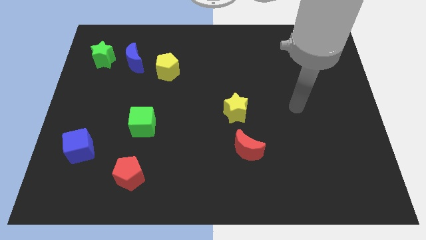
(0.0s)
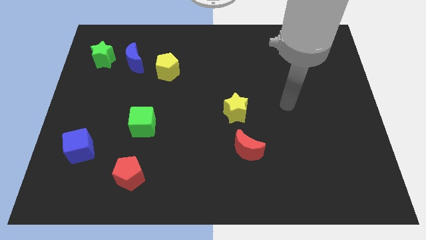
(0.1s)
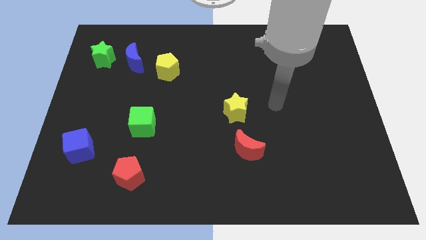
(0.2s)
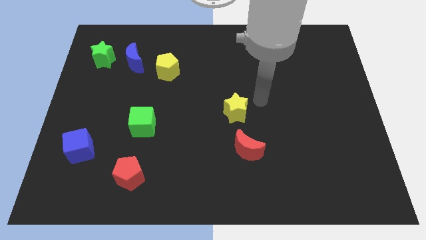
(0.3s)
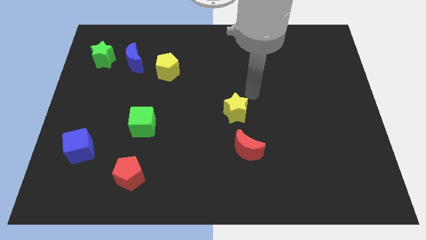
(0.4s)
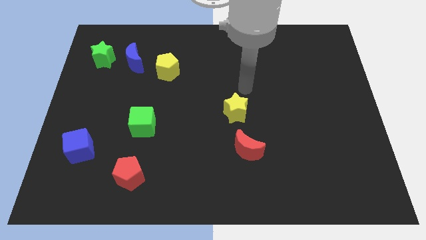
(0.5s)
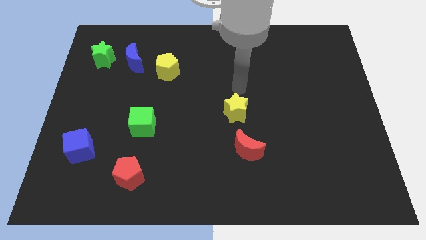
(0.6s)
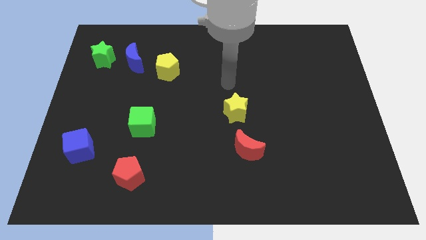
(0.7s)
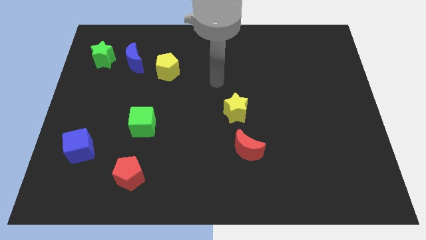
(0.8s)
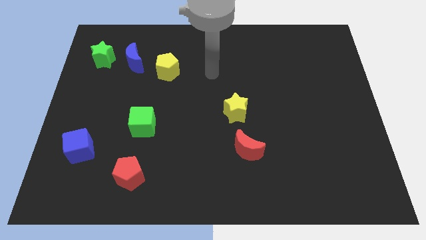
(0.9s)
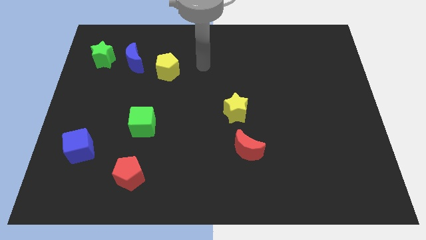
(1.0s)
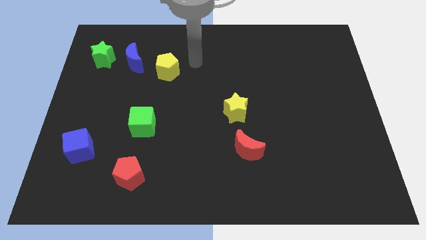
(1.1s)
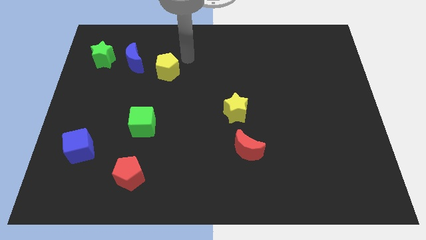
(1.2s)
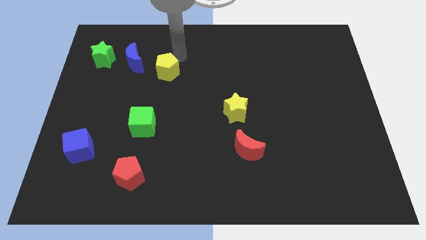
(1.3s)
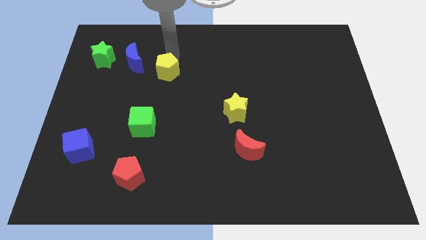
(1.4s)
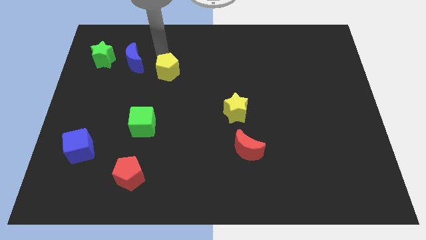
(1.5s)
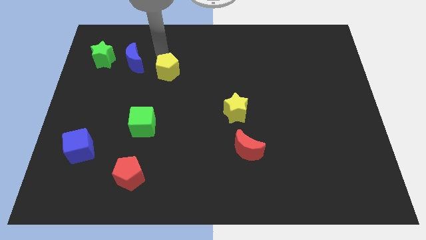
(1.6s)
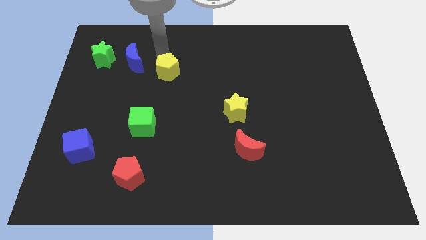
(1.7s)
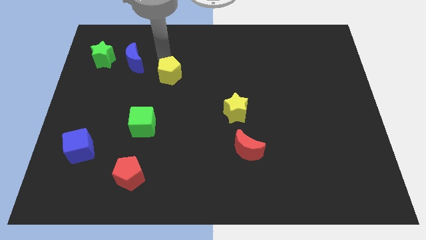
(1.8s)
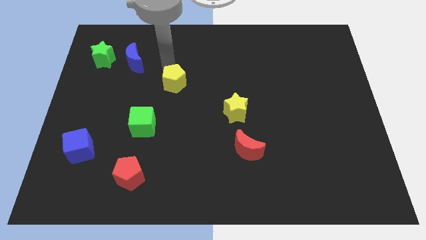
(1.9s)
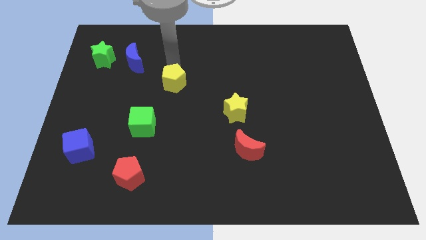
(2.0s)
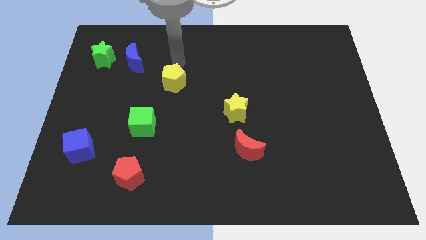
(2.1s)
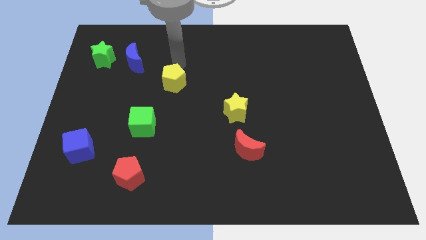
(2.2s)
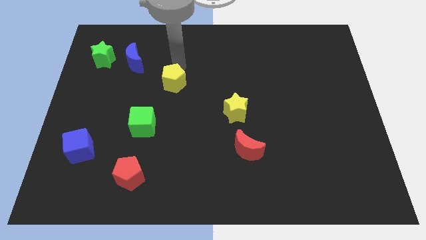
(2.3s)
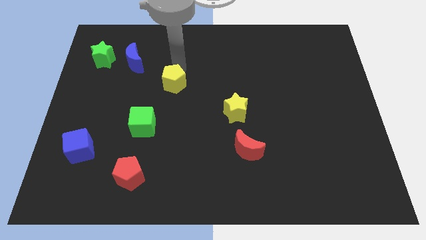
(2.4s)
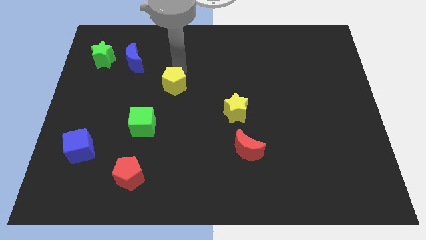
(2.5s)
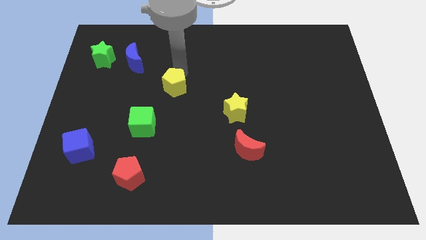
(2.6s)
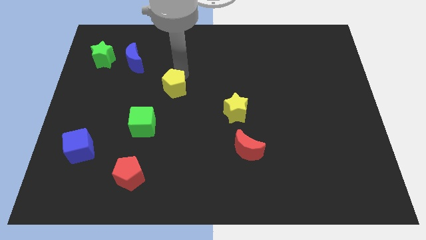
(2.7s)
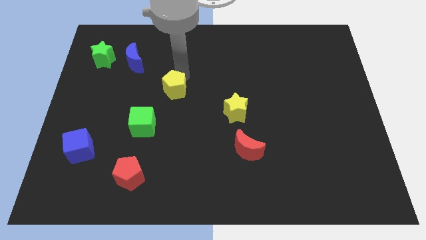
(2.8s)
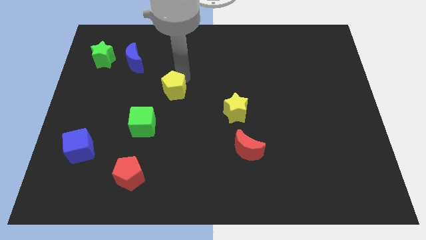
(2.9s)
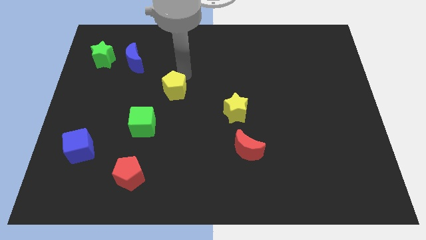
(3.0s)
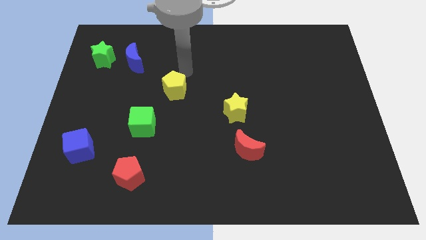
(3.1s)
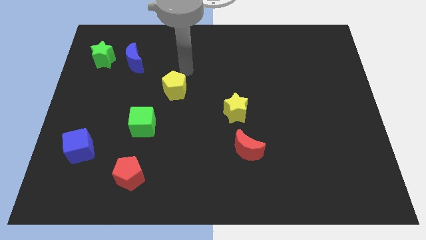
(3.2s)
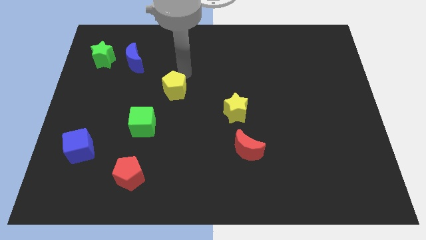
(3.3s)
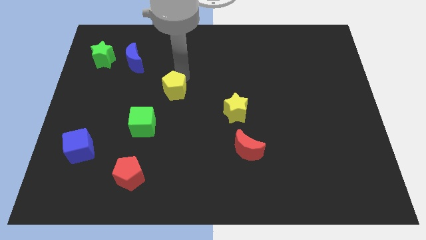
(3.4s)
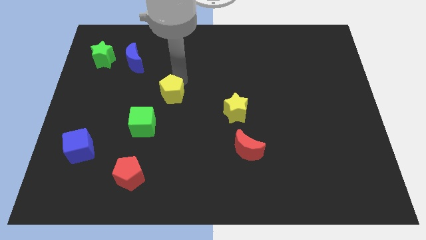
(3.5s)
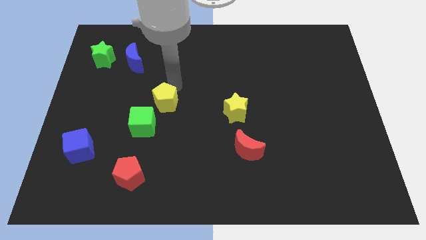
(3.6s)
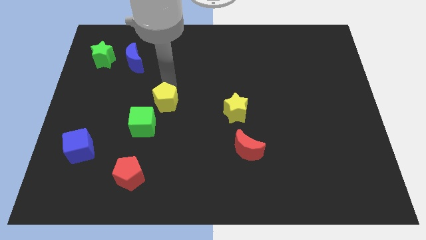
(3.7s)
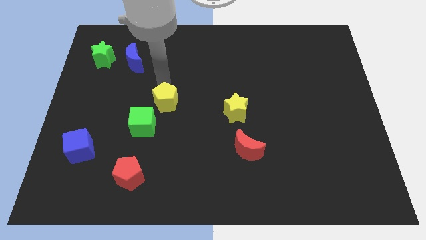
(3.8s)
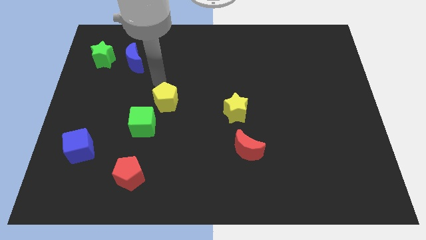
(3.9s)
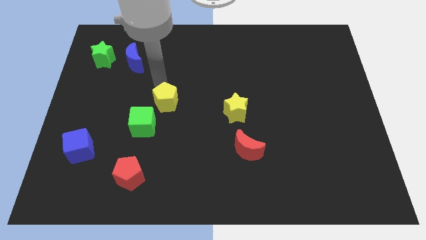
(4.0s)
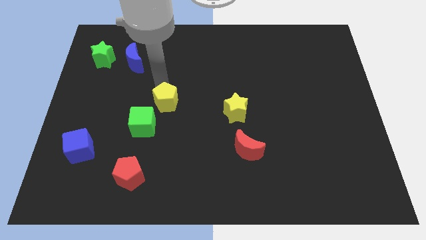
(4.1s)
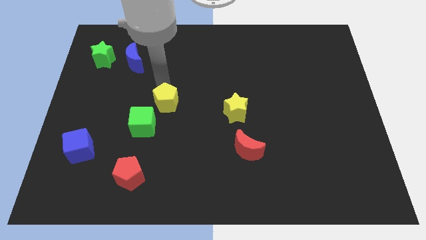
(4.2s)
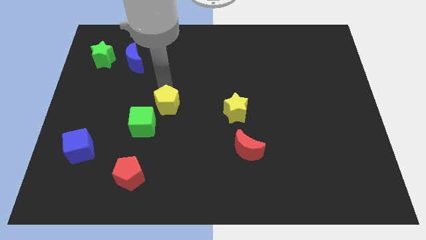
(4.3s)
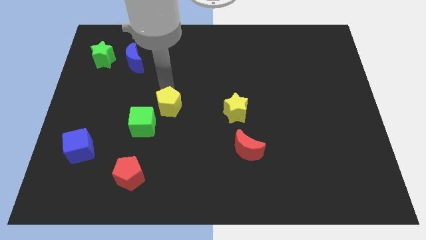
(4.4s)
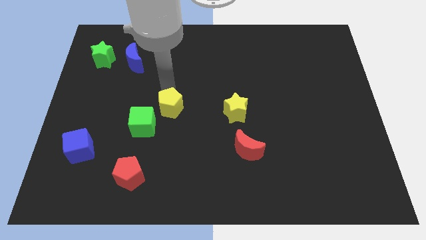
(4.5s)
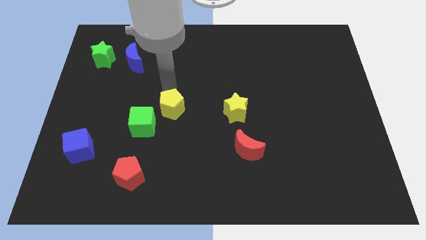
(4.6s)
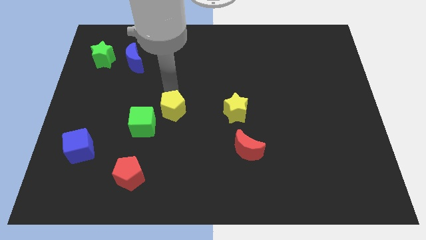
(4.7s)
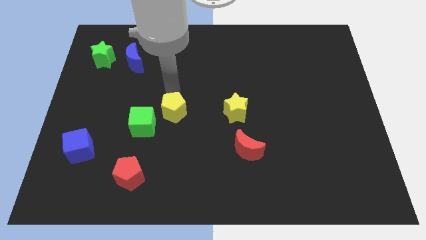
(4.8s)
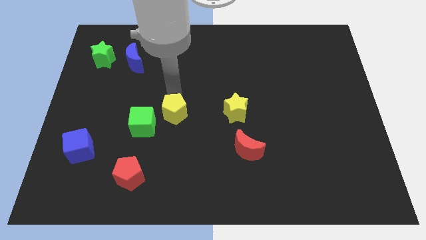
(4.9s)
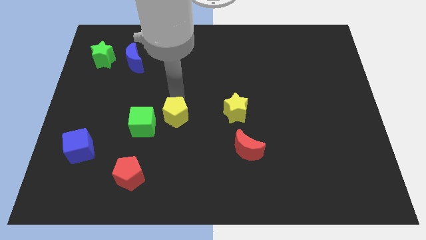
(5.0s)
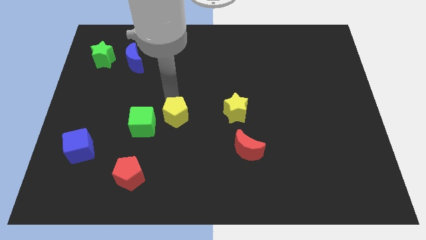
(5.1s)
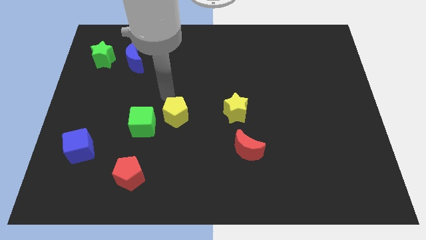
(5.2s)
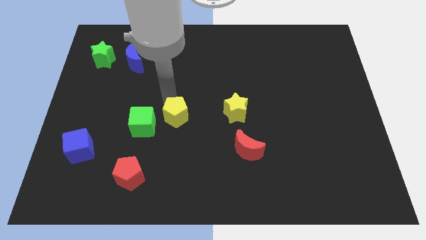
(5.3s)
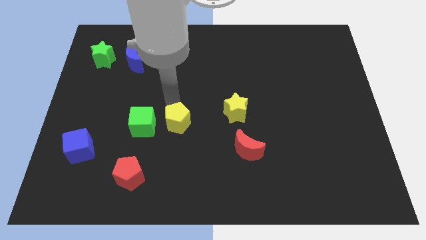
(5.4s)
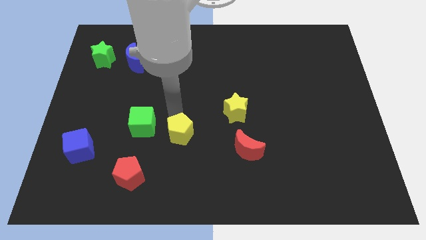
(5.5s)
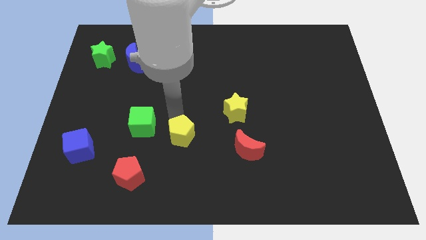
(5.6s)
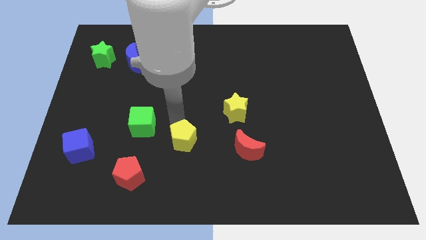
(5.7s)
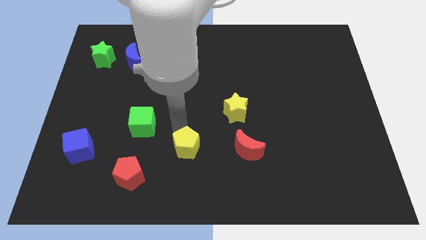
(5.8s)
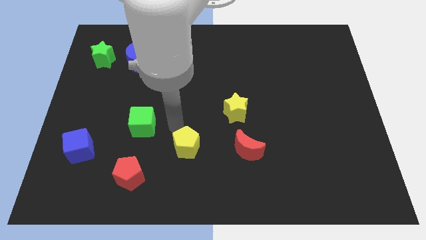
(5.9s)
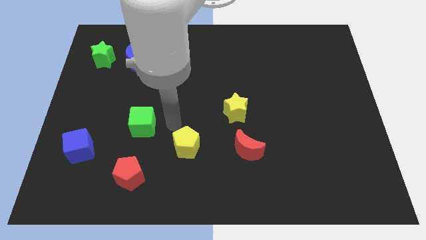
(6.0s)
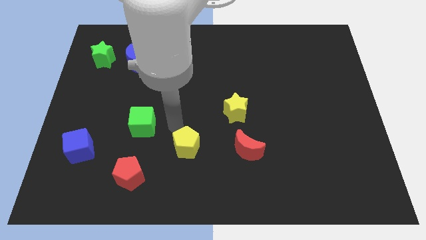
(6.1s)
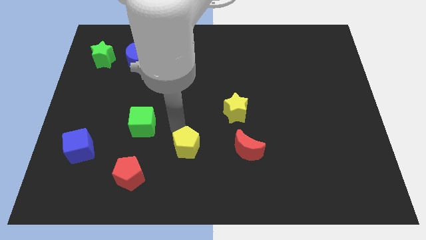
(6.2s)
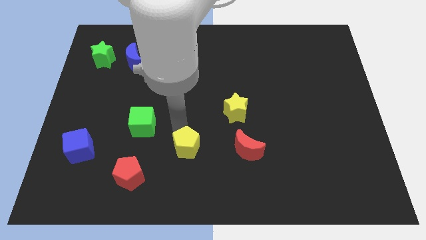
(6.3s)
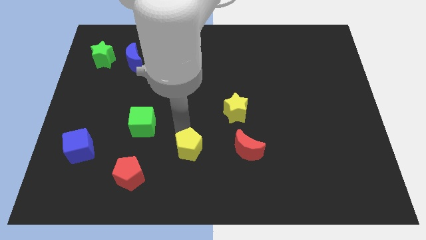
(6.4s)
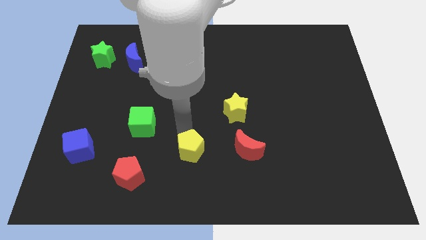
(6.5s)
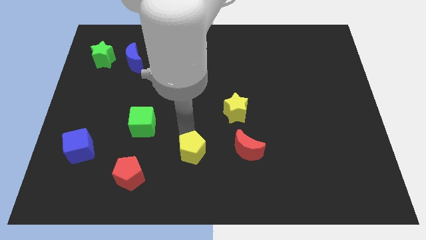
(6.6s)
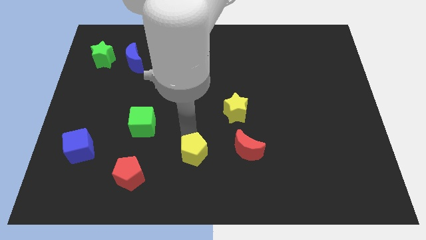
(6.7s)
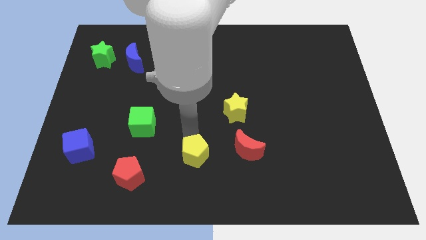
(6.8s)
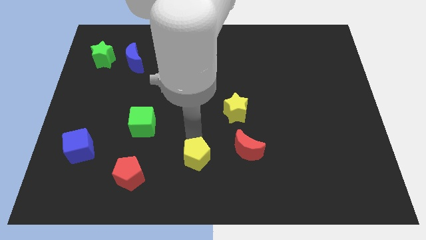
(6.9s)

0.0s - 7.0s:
put the yellow pentagon to the bottom side
